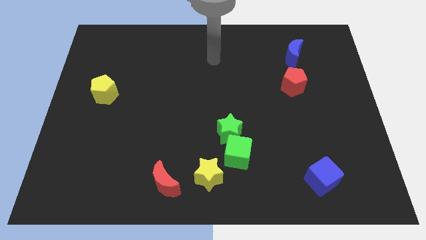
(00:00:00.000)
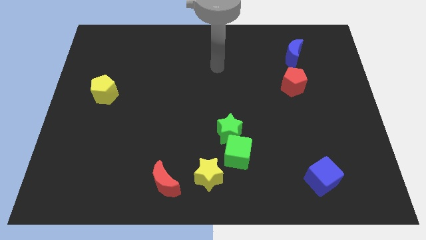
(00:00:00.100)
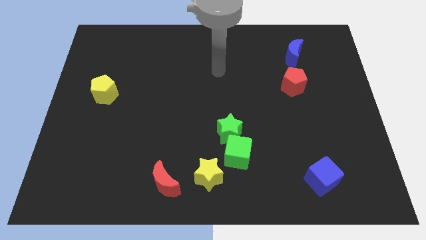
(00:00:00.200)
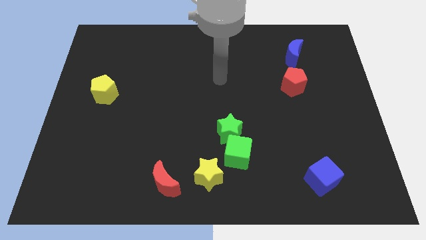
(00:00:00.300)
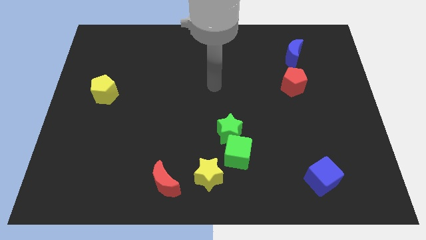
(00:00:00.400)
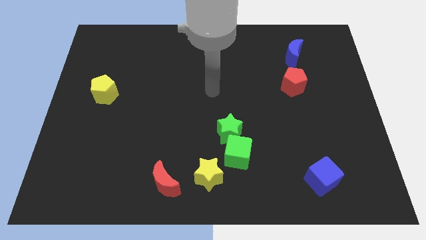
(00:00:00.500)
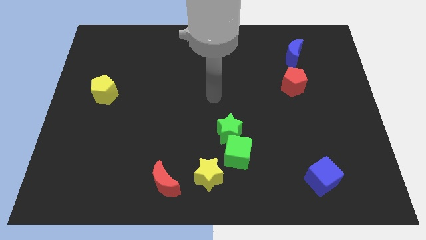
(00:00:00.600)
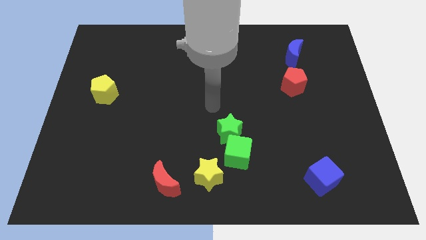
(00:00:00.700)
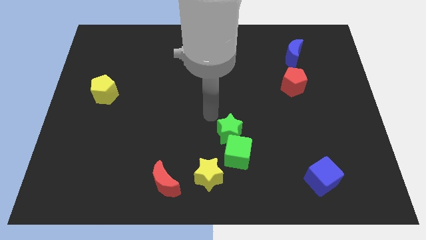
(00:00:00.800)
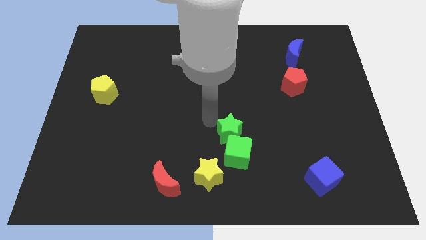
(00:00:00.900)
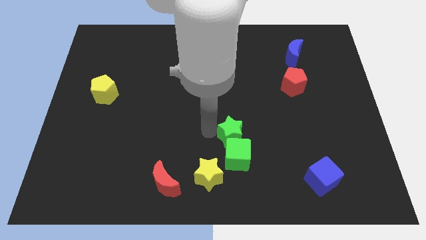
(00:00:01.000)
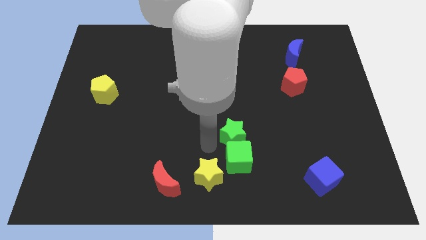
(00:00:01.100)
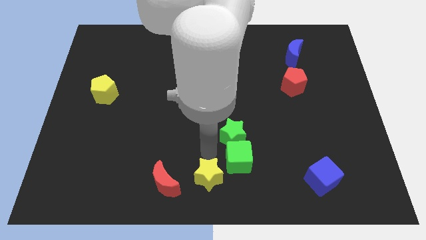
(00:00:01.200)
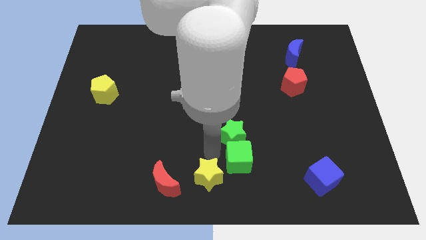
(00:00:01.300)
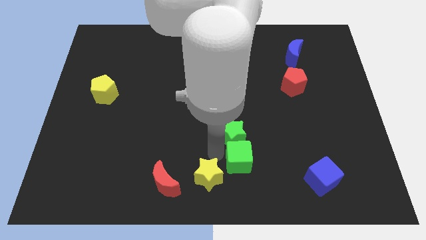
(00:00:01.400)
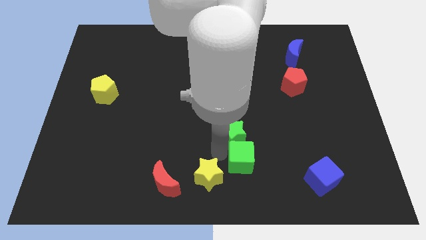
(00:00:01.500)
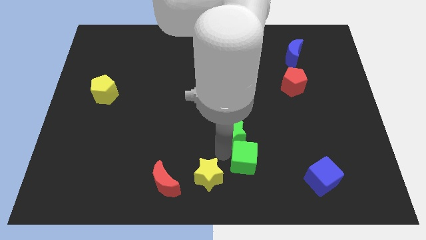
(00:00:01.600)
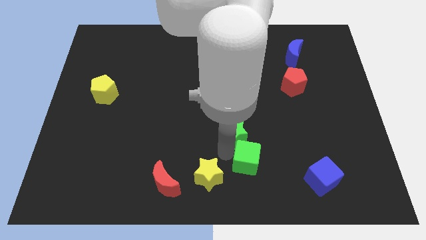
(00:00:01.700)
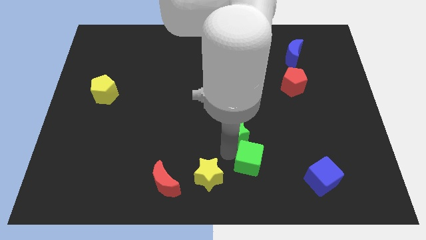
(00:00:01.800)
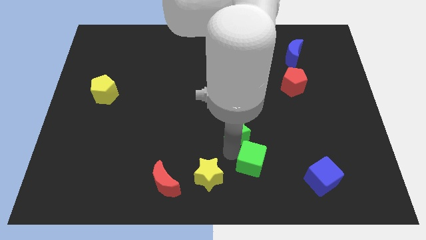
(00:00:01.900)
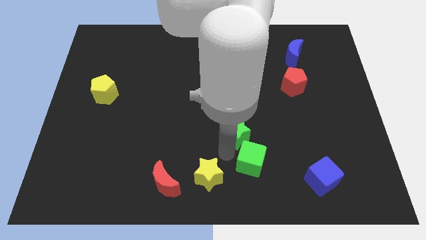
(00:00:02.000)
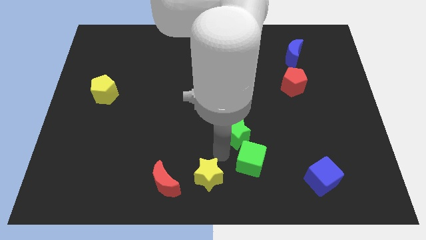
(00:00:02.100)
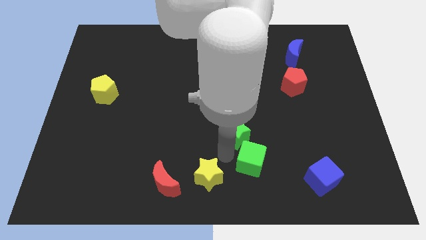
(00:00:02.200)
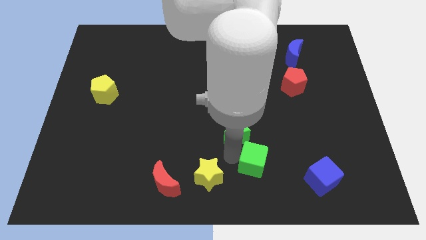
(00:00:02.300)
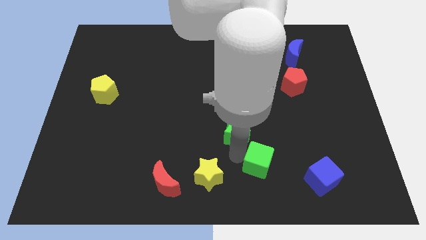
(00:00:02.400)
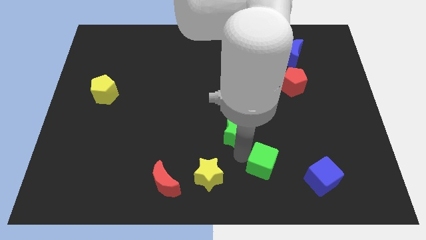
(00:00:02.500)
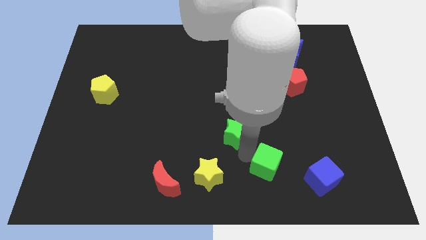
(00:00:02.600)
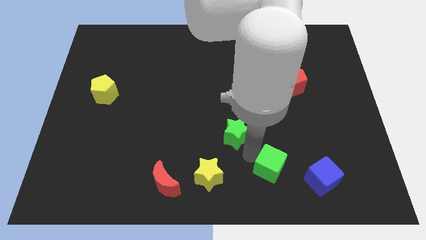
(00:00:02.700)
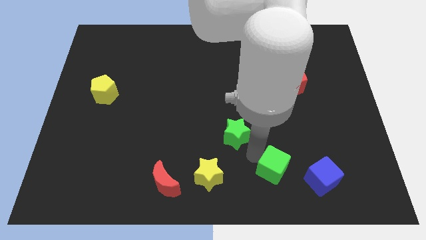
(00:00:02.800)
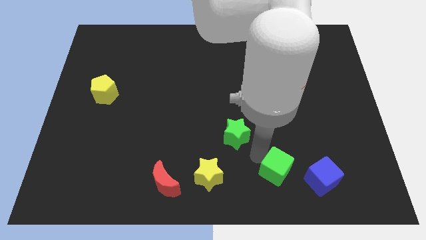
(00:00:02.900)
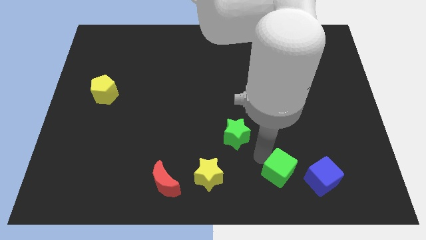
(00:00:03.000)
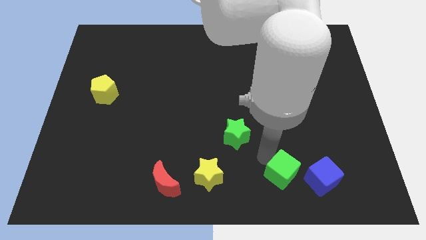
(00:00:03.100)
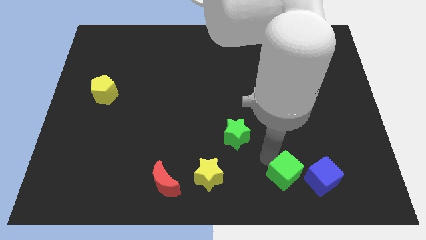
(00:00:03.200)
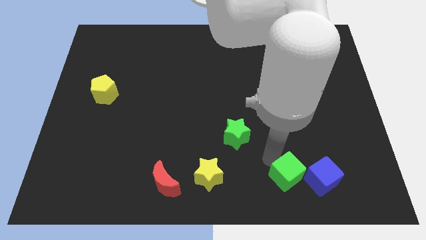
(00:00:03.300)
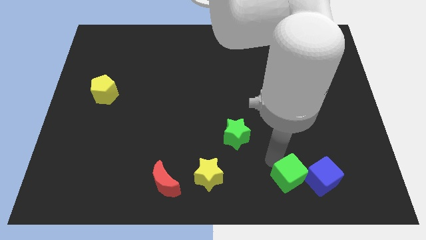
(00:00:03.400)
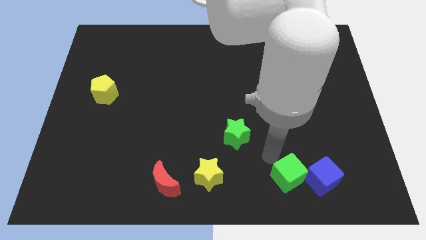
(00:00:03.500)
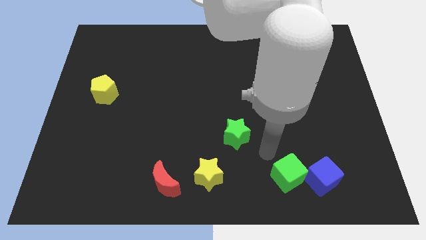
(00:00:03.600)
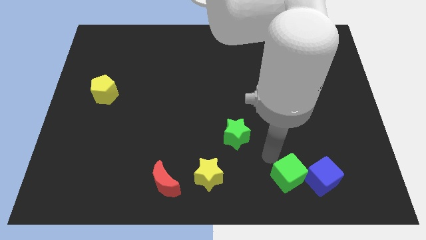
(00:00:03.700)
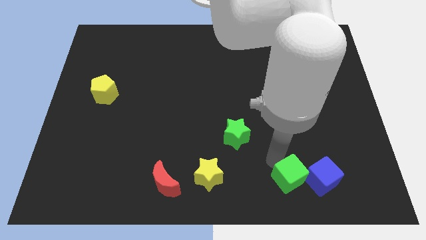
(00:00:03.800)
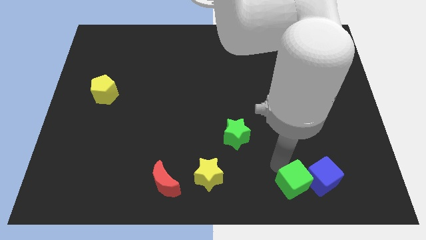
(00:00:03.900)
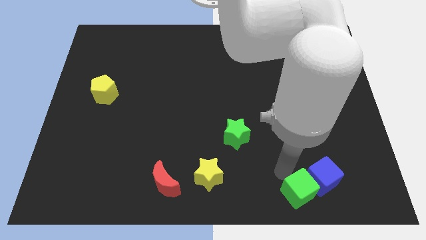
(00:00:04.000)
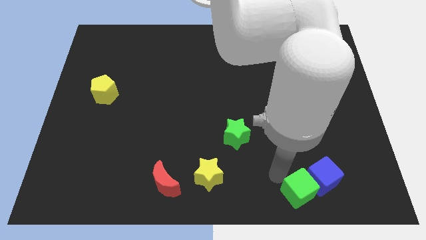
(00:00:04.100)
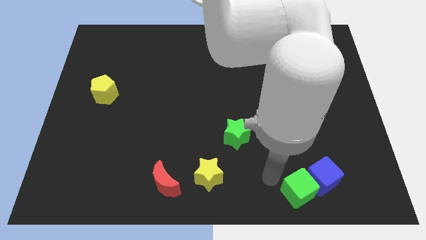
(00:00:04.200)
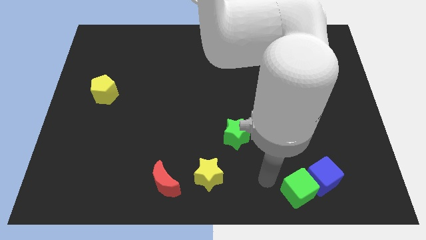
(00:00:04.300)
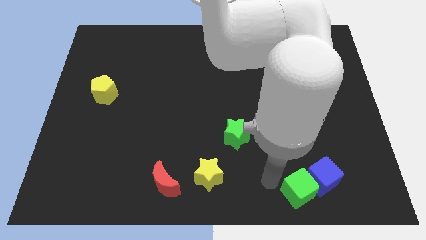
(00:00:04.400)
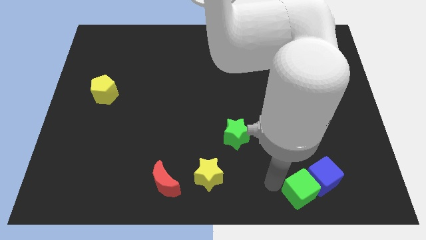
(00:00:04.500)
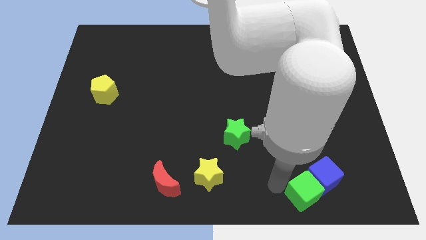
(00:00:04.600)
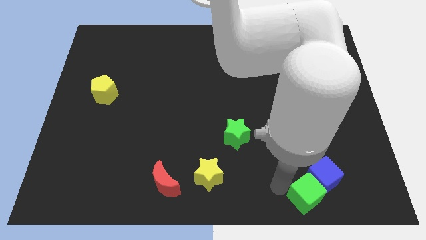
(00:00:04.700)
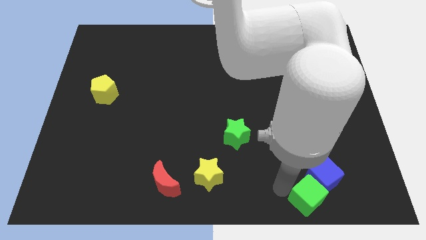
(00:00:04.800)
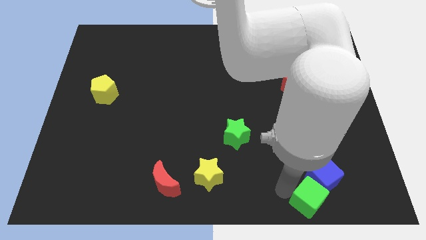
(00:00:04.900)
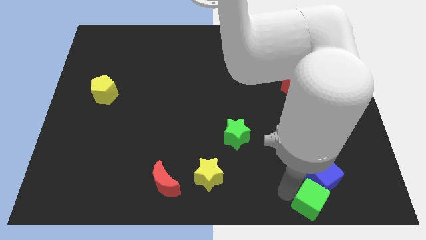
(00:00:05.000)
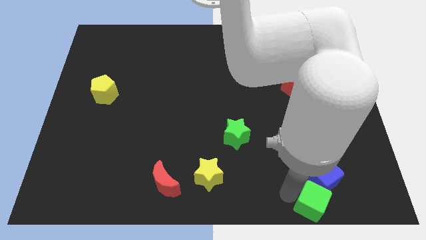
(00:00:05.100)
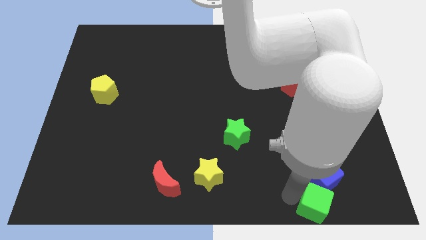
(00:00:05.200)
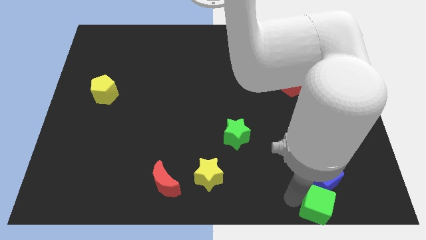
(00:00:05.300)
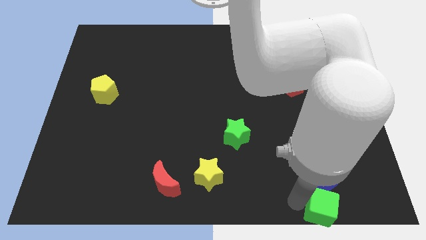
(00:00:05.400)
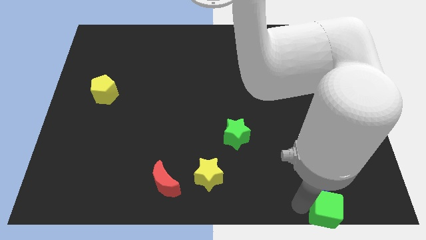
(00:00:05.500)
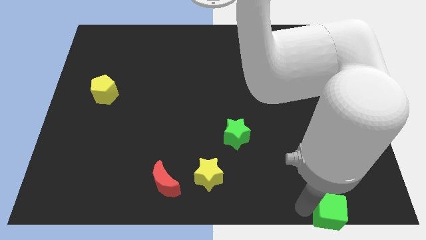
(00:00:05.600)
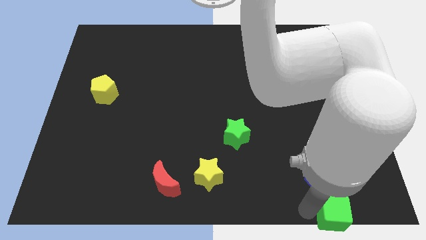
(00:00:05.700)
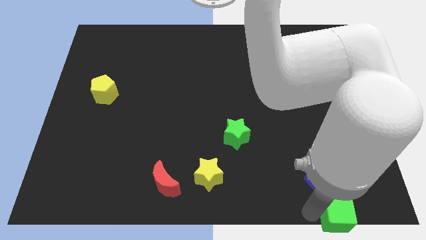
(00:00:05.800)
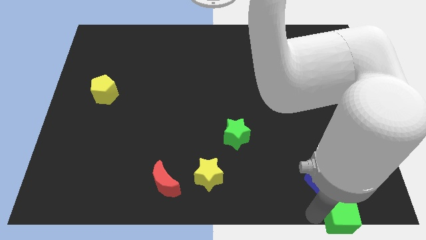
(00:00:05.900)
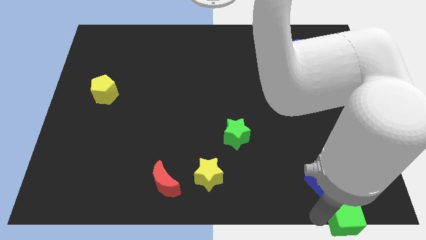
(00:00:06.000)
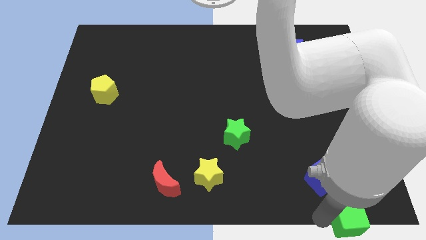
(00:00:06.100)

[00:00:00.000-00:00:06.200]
move the green cube to the lower right corner
